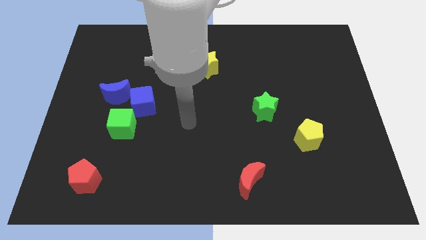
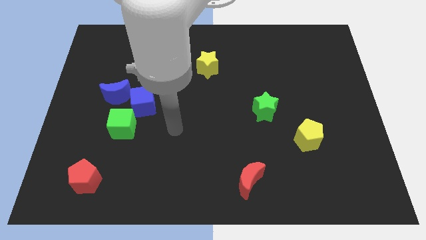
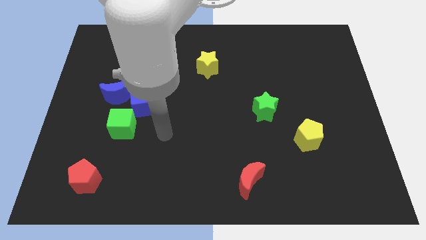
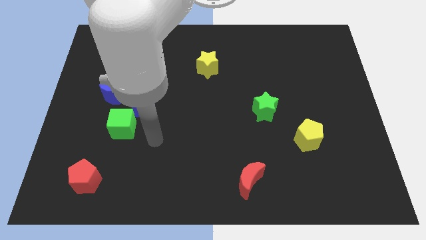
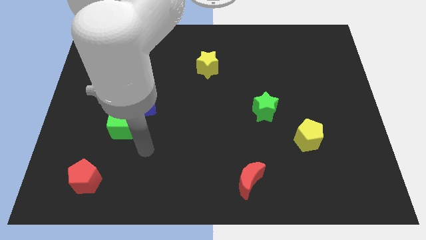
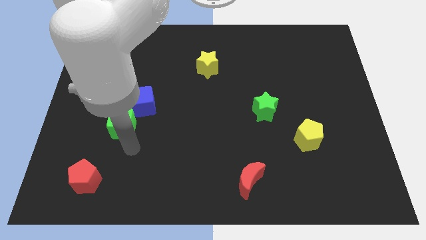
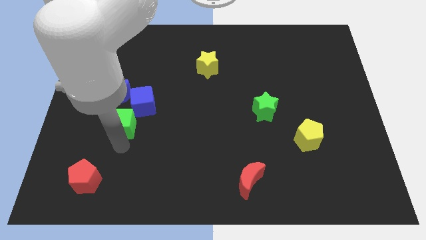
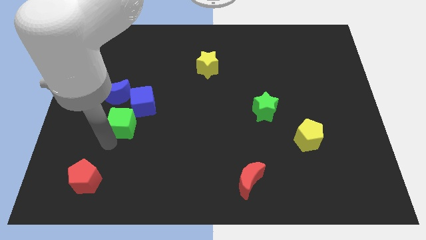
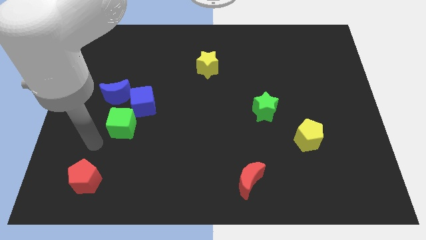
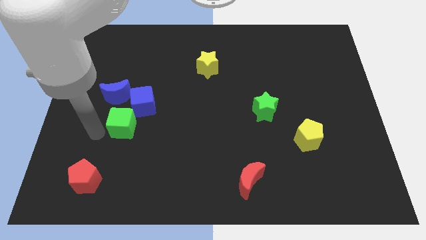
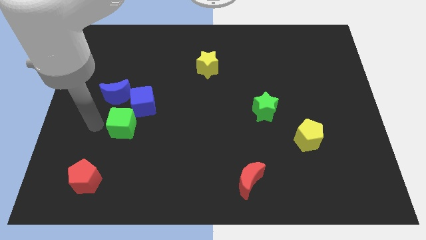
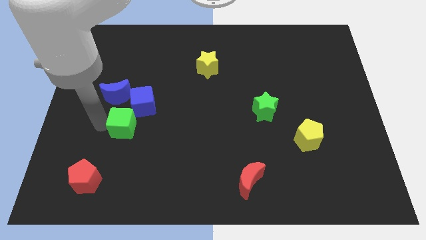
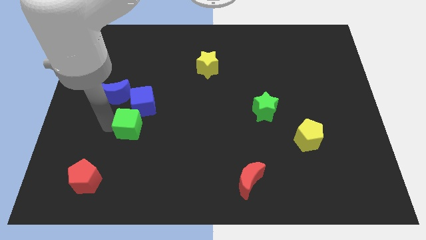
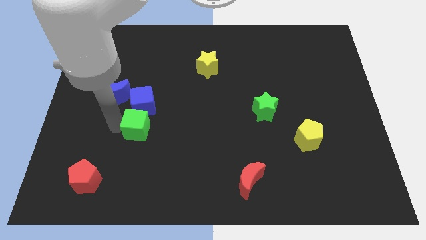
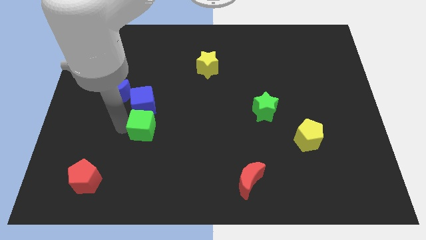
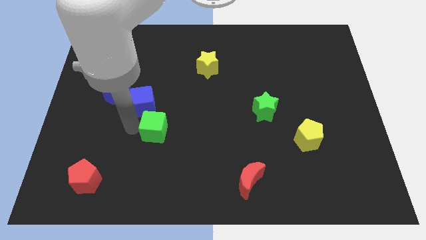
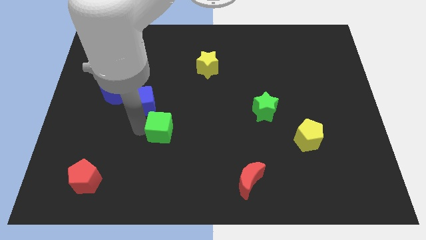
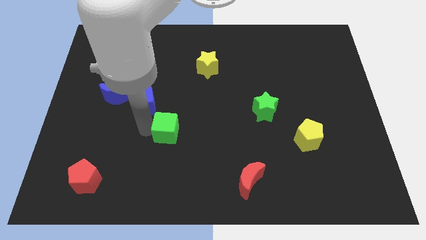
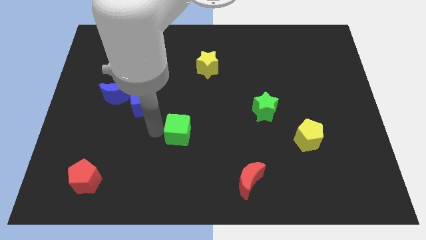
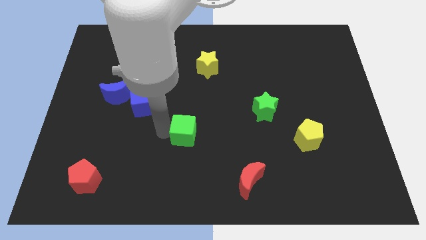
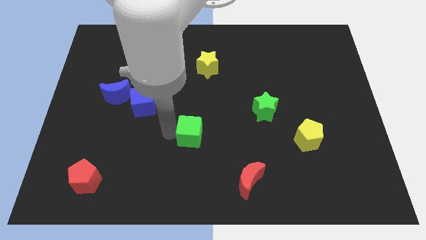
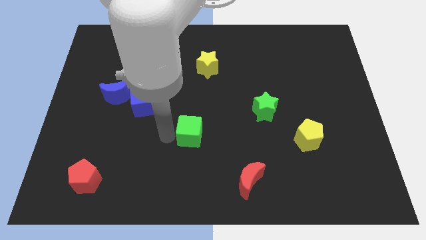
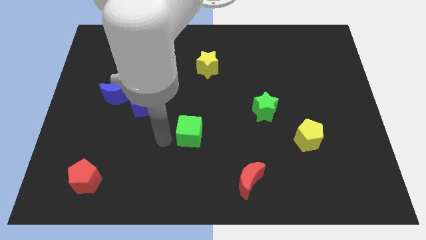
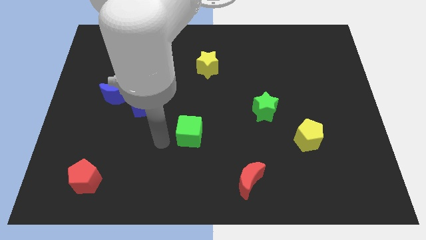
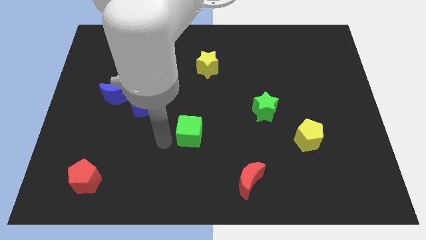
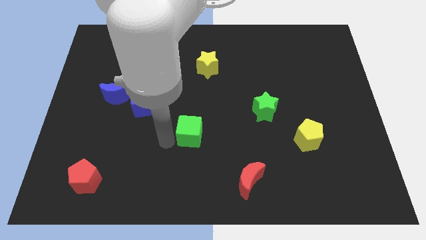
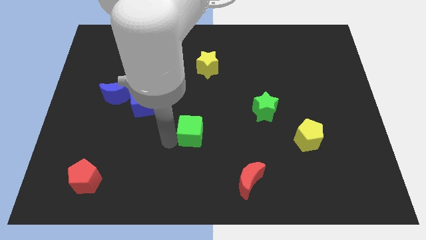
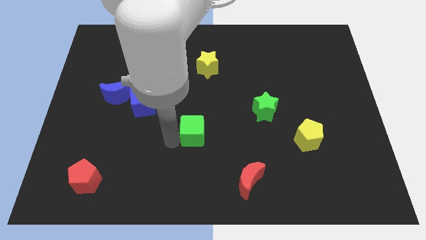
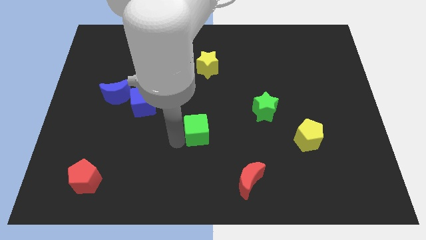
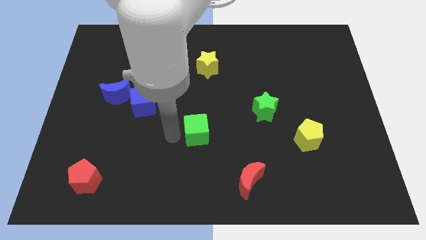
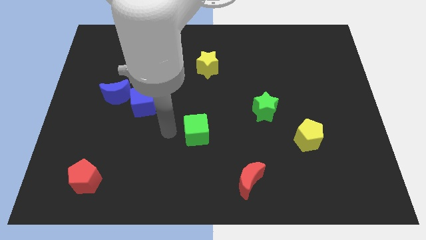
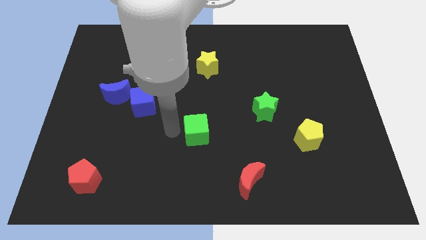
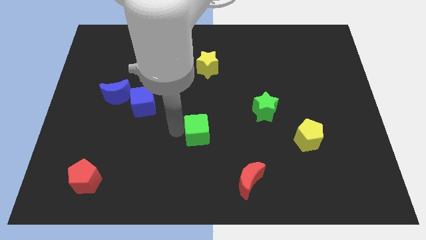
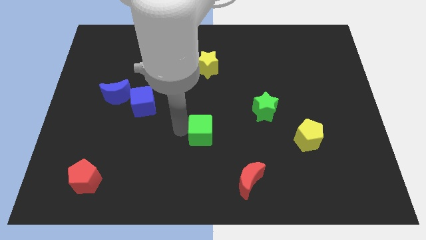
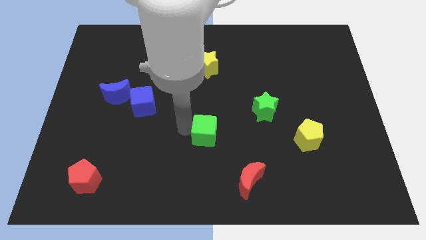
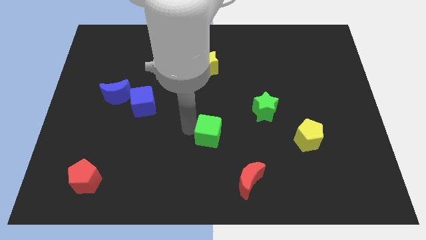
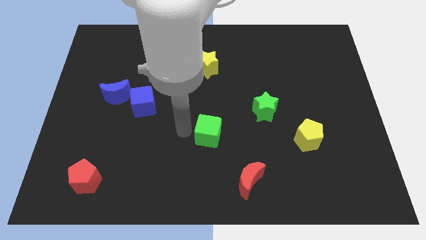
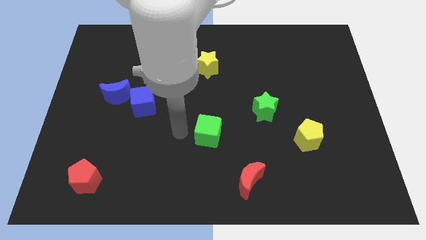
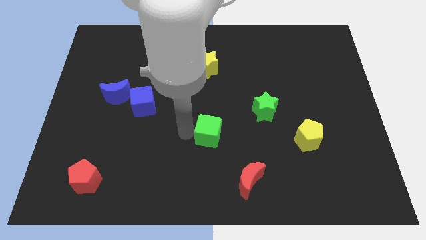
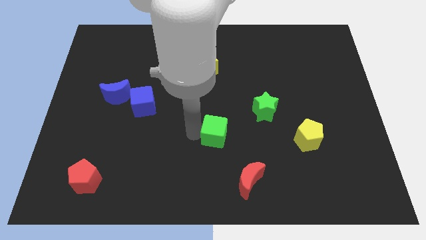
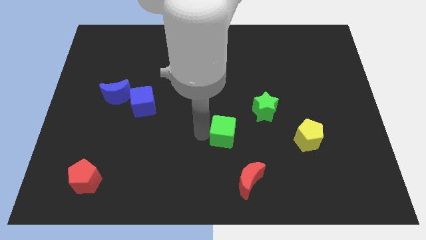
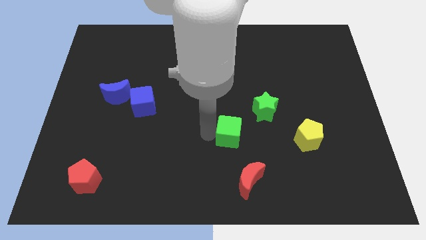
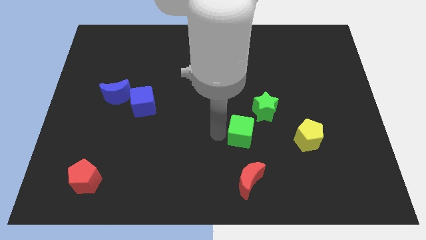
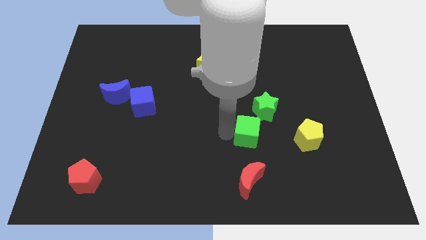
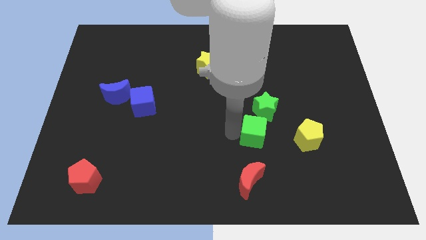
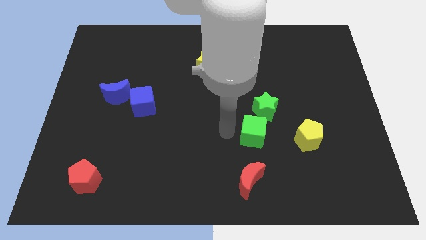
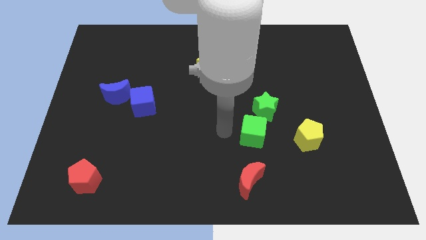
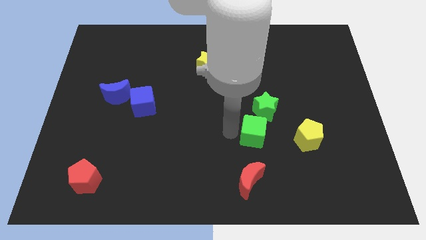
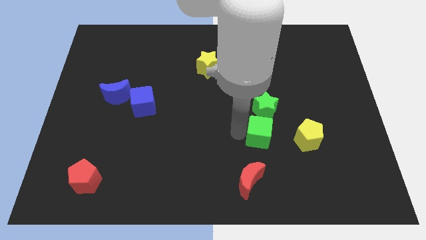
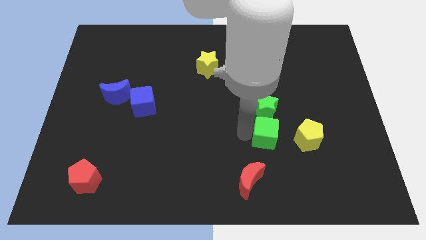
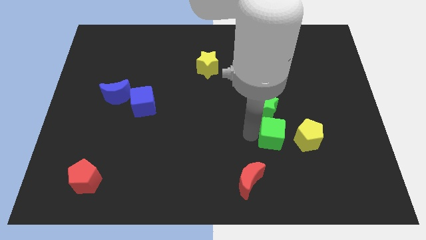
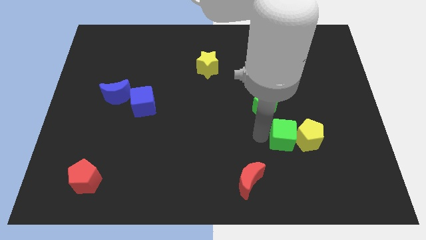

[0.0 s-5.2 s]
push the green cube towards the yellow pentagon

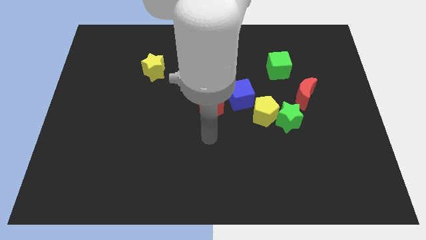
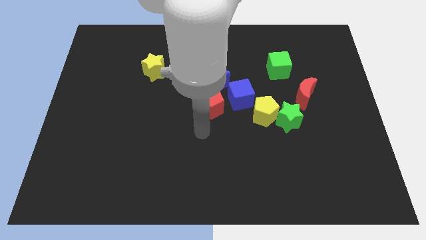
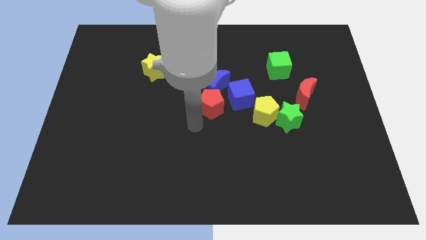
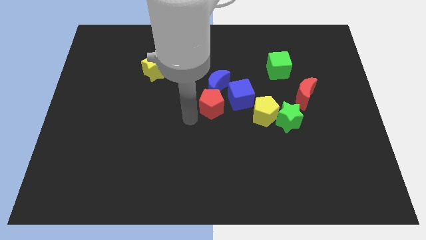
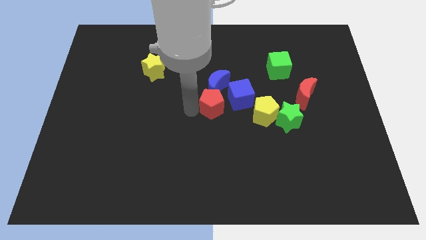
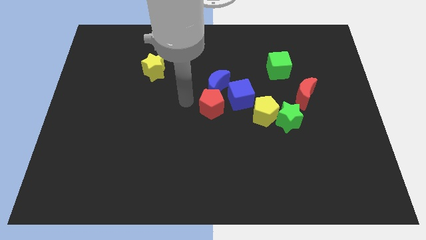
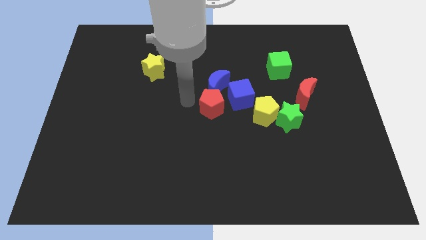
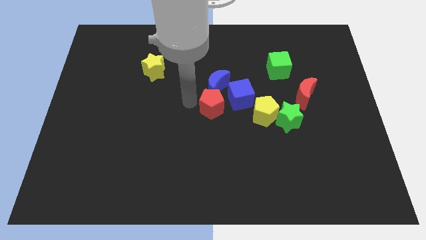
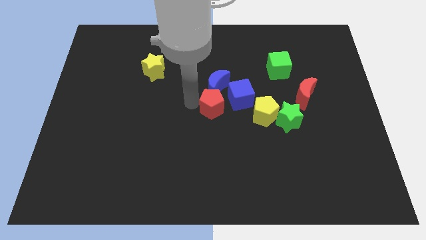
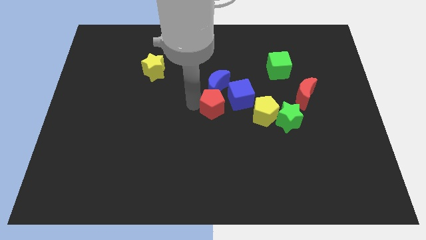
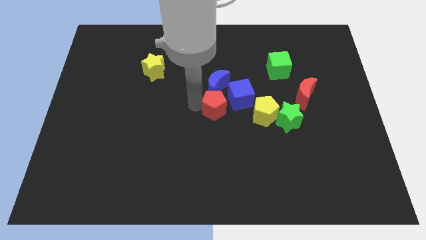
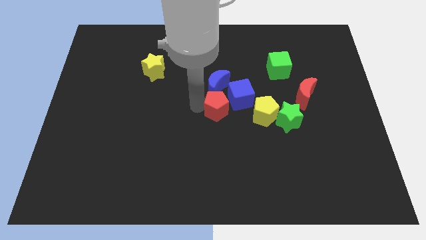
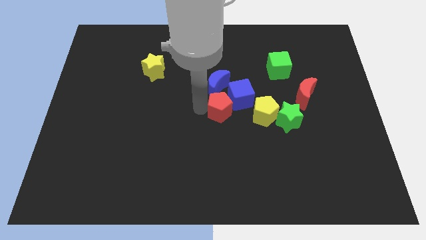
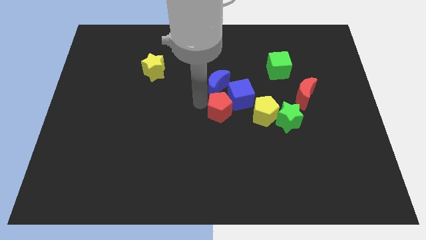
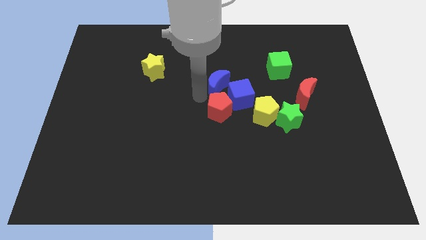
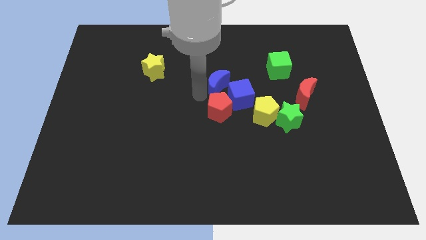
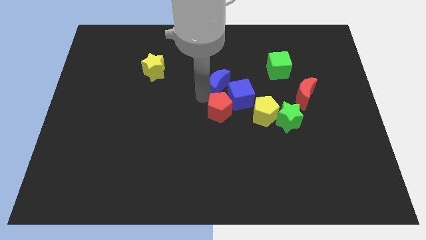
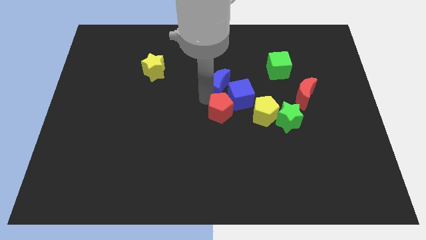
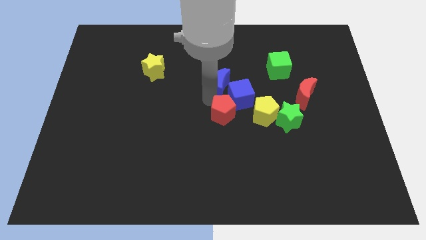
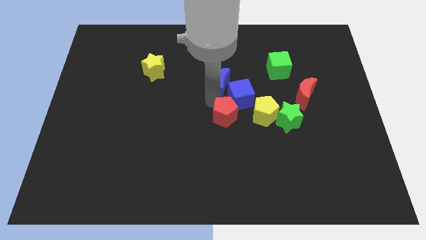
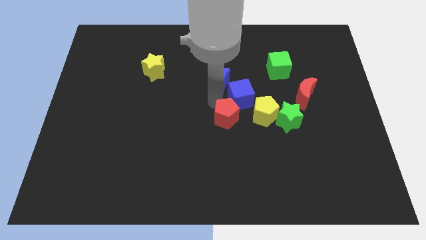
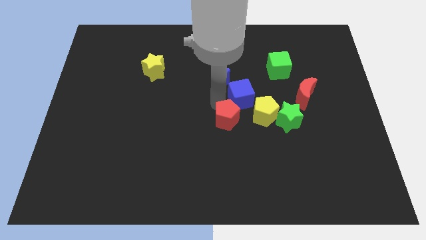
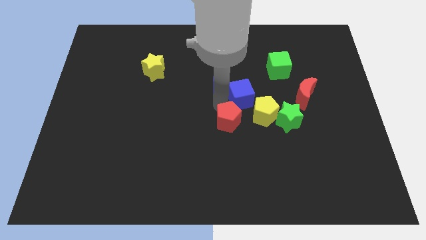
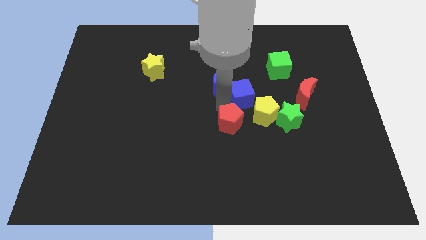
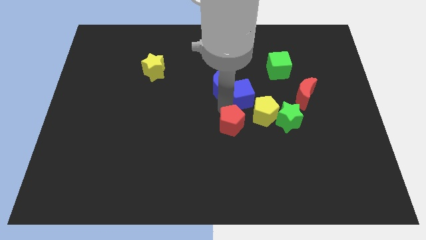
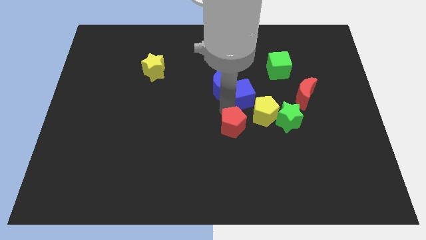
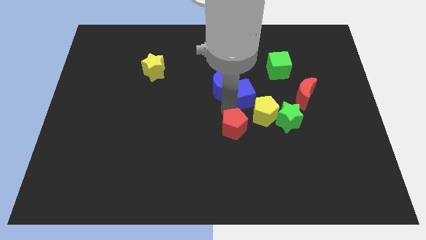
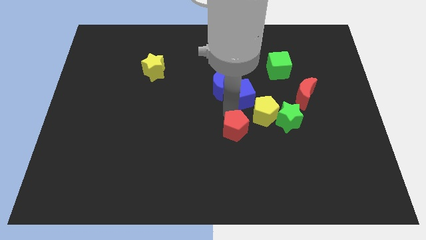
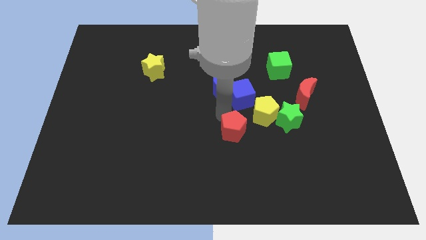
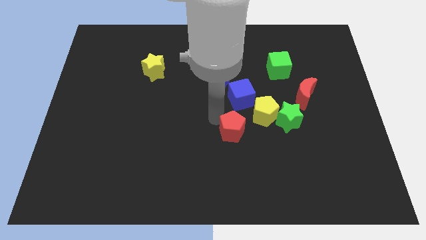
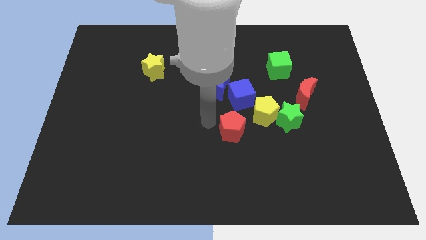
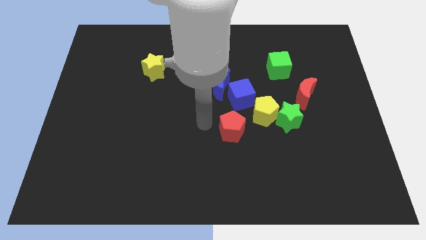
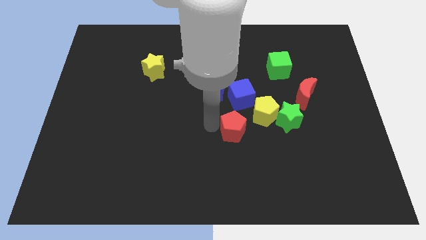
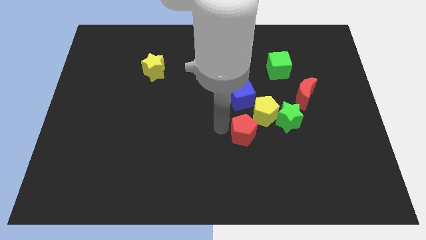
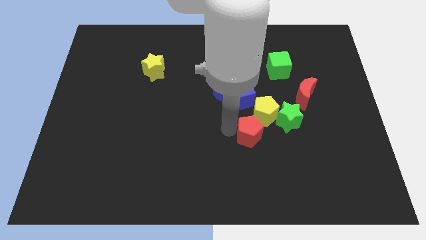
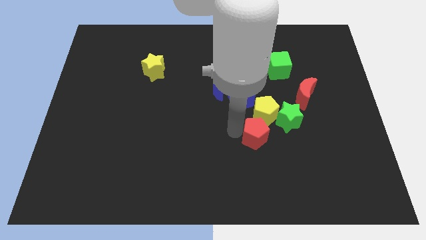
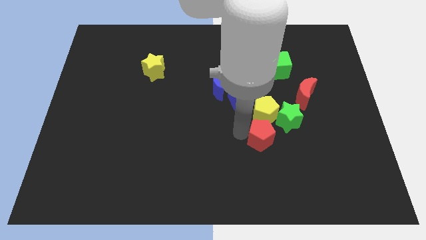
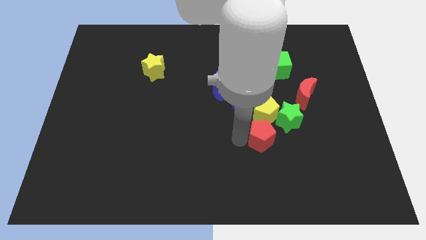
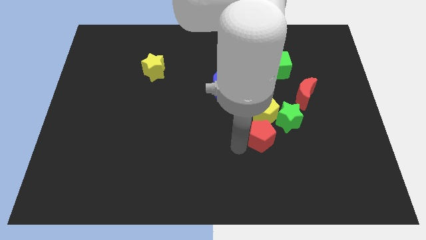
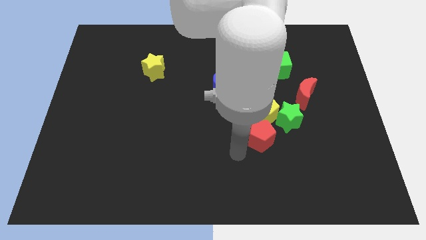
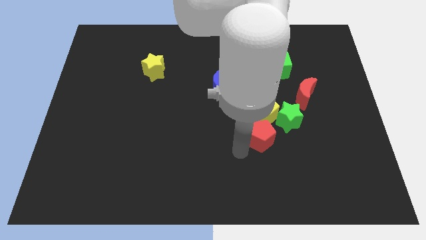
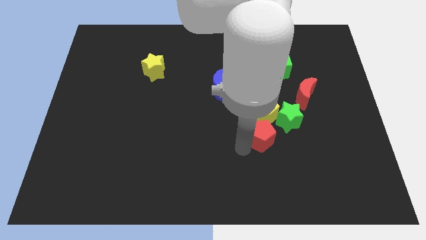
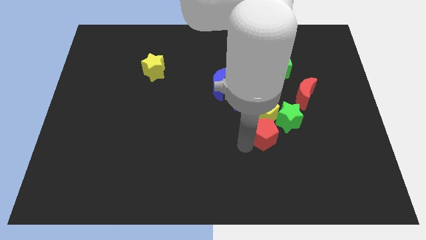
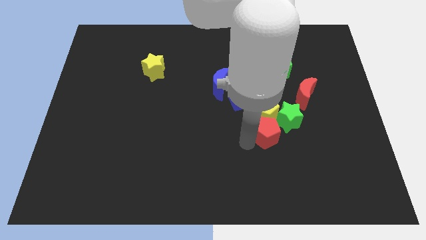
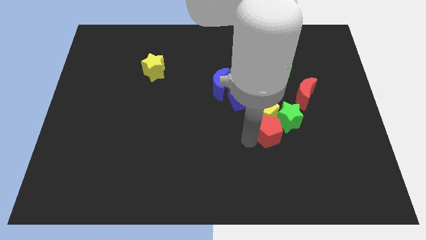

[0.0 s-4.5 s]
slide the red pentagon towards the green star
